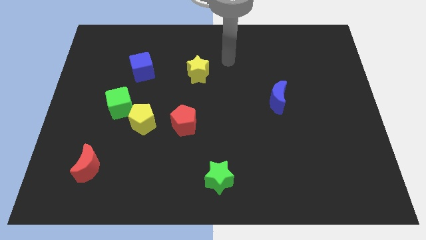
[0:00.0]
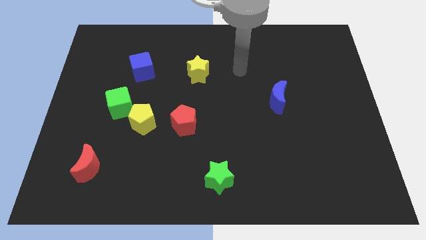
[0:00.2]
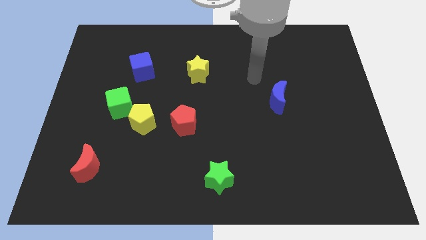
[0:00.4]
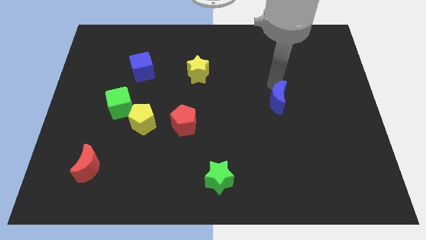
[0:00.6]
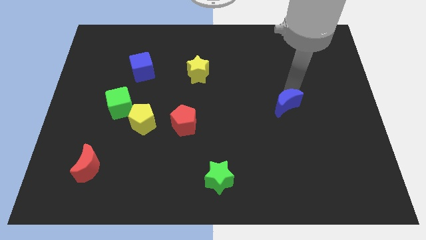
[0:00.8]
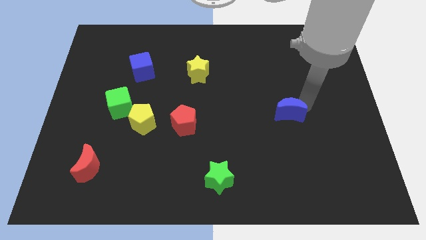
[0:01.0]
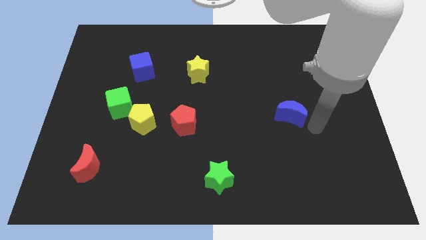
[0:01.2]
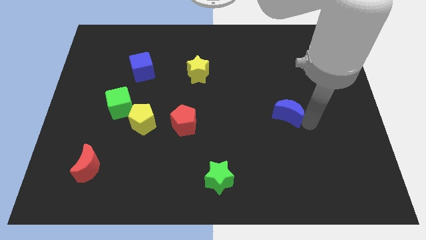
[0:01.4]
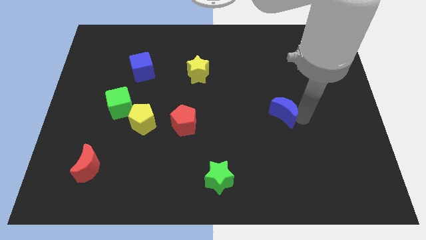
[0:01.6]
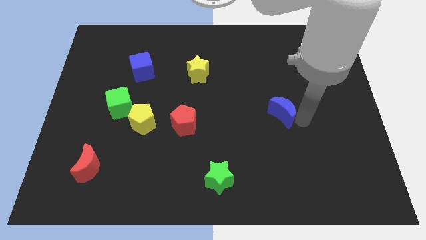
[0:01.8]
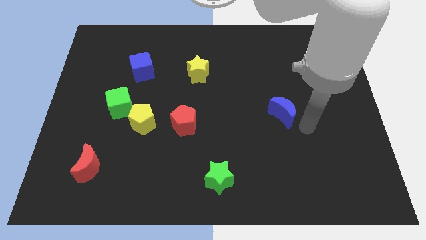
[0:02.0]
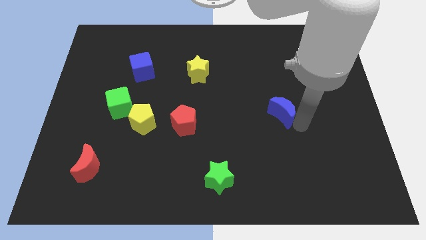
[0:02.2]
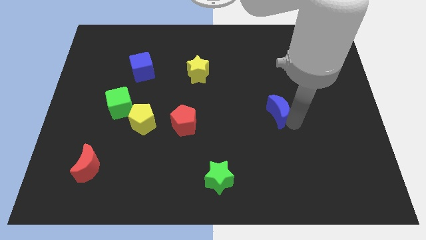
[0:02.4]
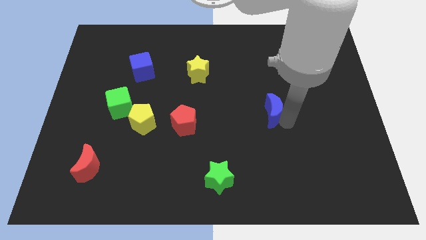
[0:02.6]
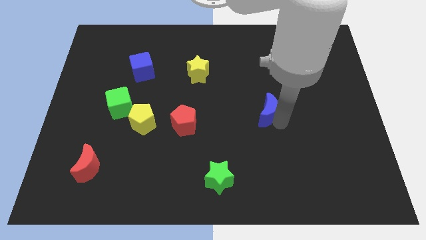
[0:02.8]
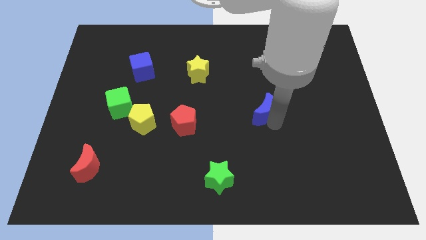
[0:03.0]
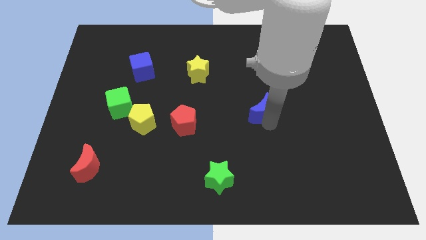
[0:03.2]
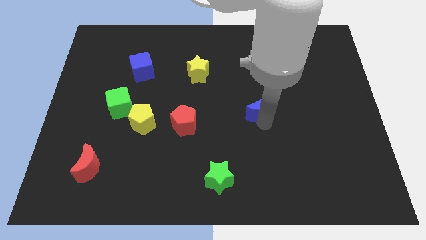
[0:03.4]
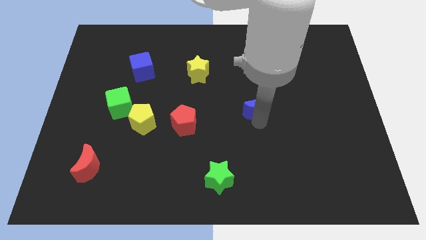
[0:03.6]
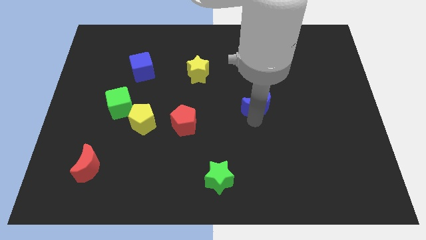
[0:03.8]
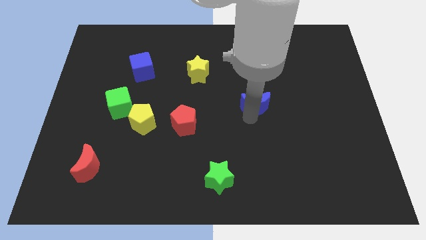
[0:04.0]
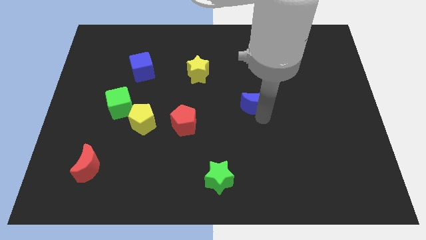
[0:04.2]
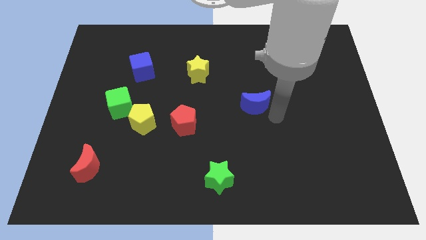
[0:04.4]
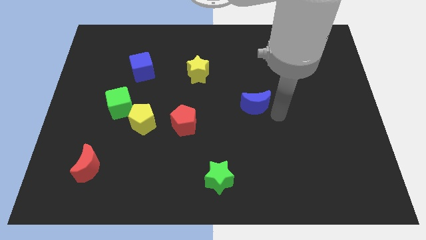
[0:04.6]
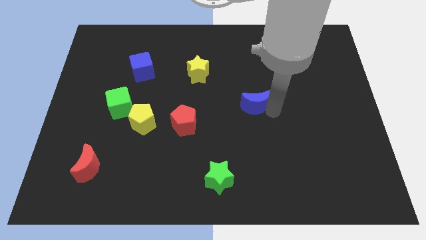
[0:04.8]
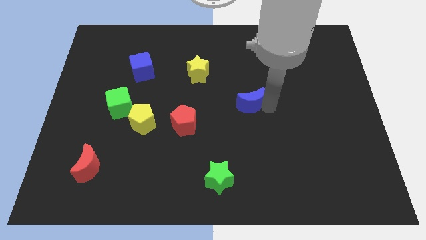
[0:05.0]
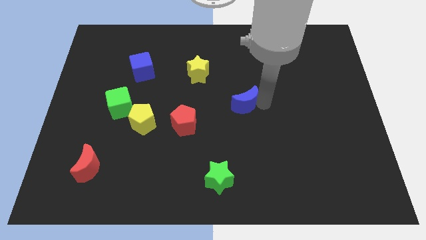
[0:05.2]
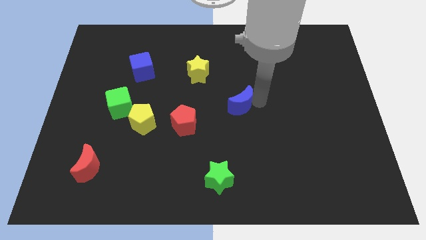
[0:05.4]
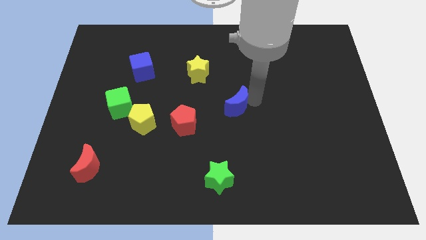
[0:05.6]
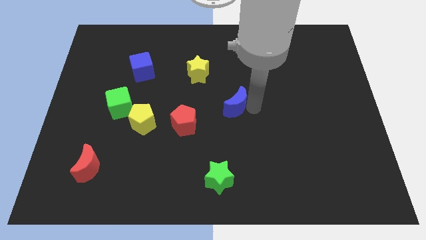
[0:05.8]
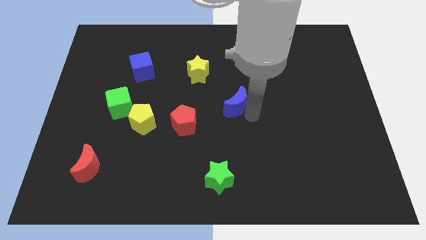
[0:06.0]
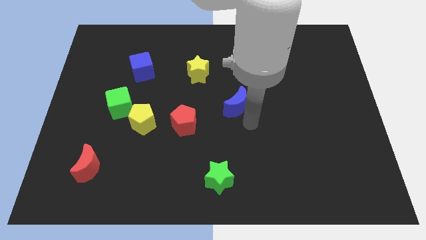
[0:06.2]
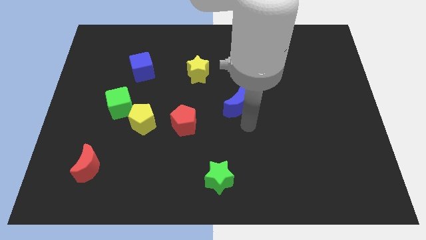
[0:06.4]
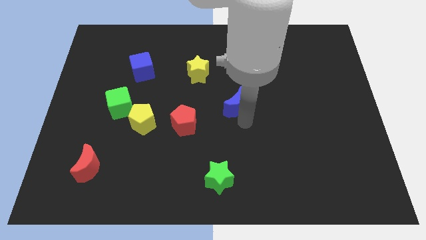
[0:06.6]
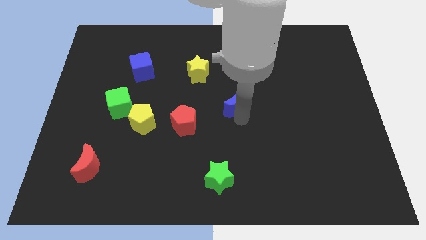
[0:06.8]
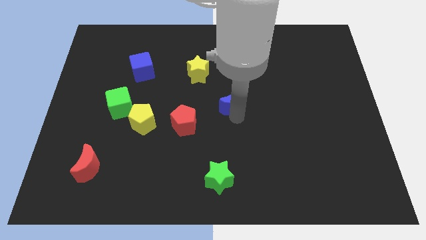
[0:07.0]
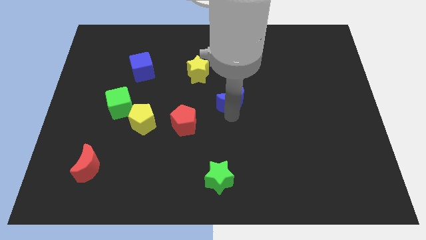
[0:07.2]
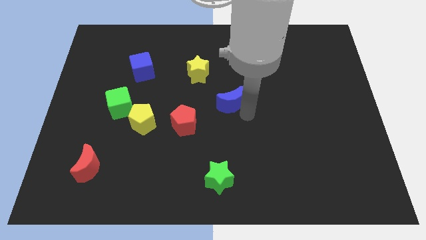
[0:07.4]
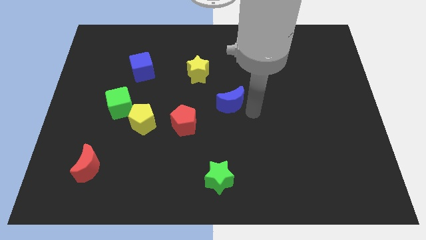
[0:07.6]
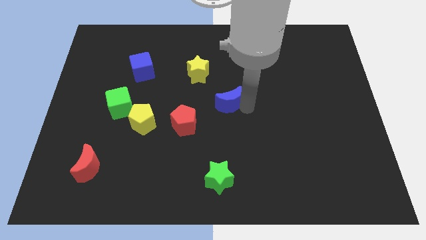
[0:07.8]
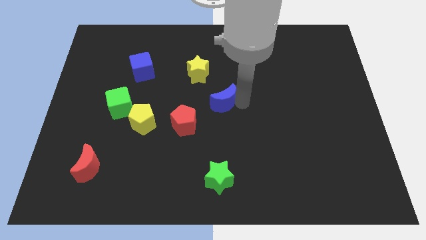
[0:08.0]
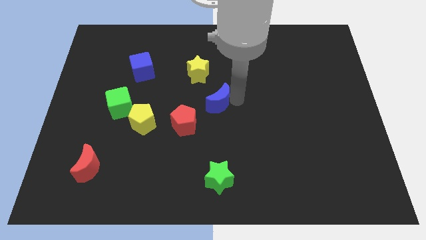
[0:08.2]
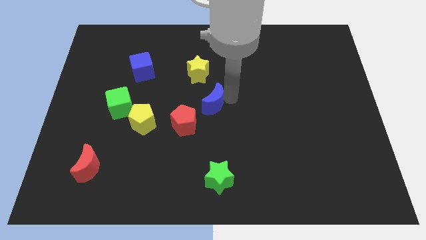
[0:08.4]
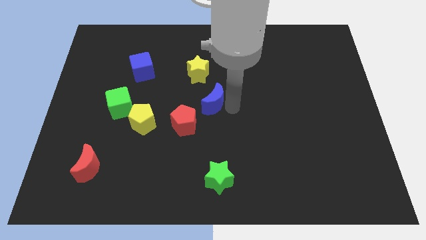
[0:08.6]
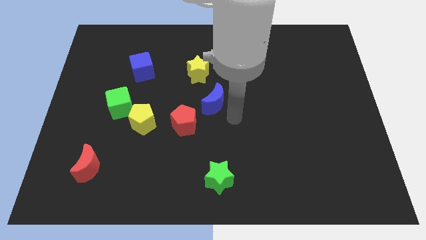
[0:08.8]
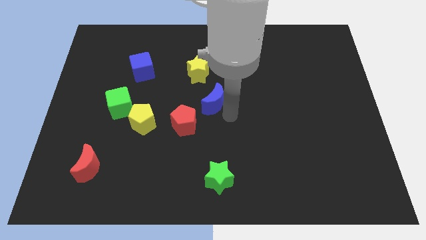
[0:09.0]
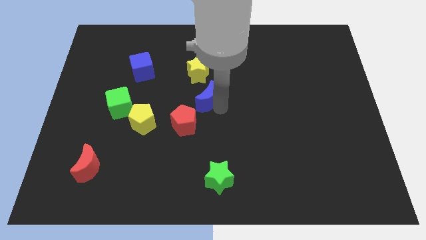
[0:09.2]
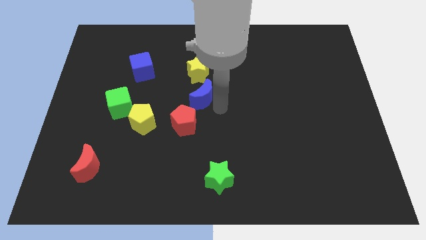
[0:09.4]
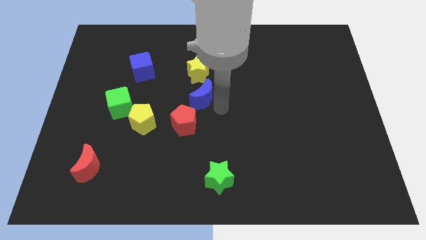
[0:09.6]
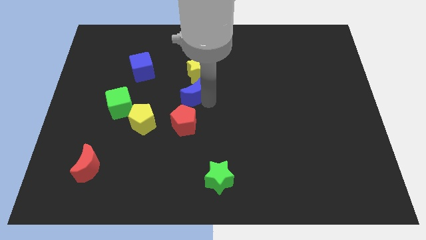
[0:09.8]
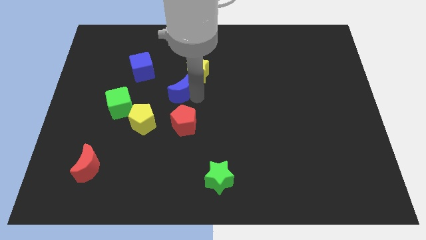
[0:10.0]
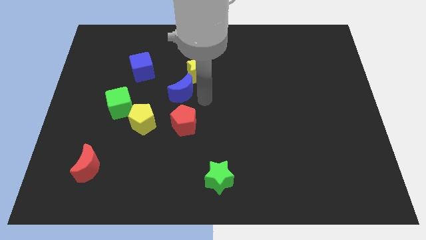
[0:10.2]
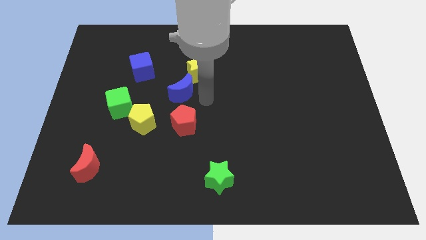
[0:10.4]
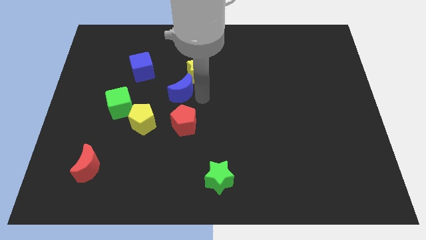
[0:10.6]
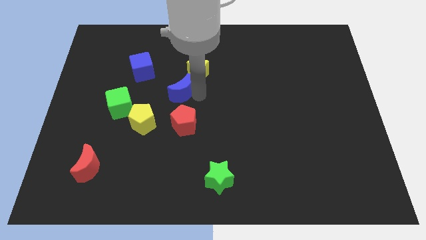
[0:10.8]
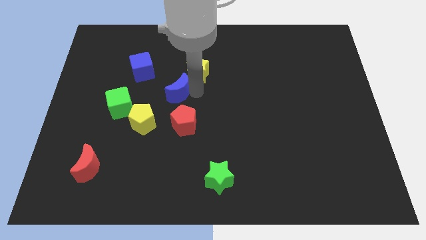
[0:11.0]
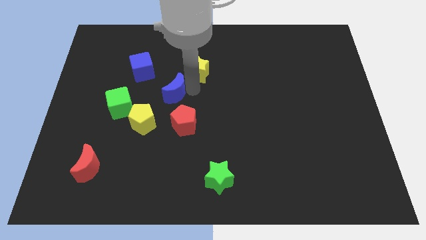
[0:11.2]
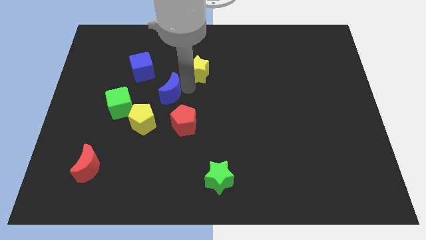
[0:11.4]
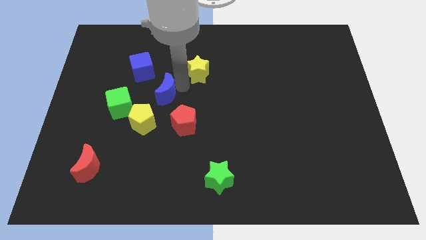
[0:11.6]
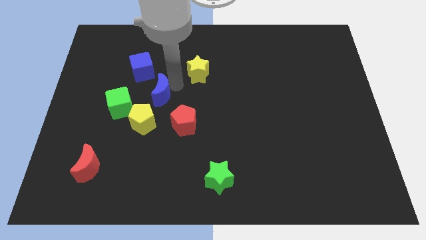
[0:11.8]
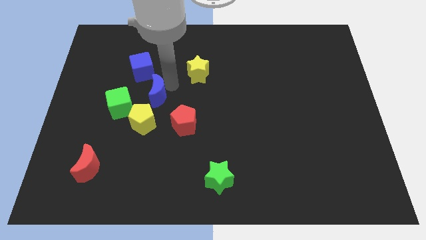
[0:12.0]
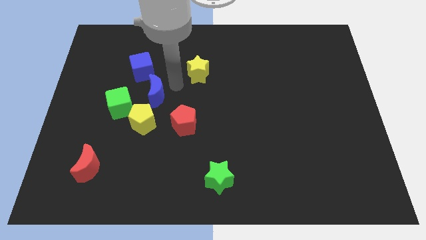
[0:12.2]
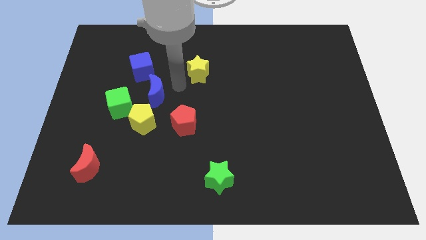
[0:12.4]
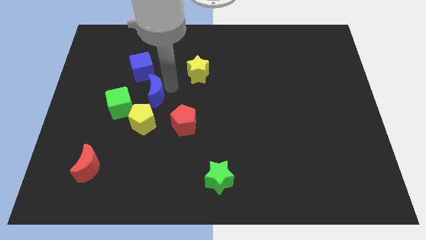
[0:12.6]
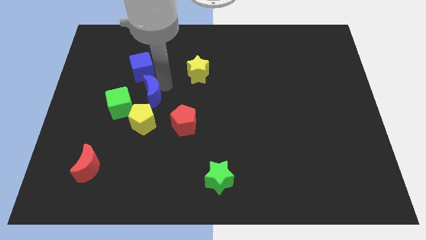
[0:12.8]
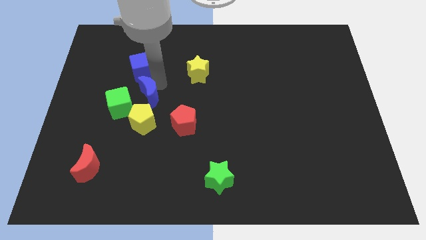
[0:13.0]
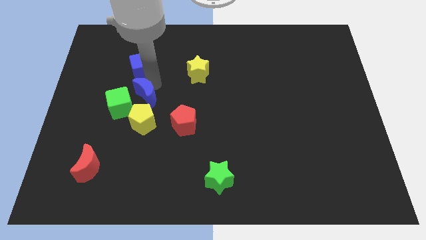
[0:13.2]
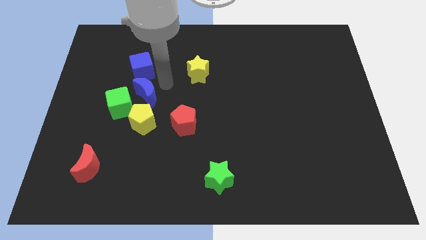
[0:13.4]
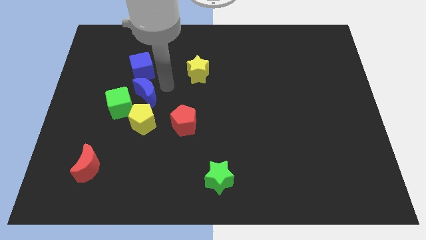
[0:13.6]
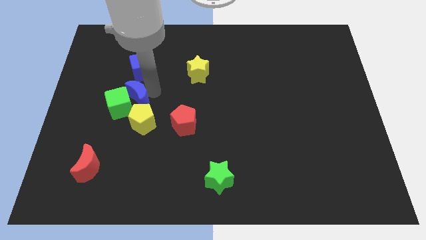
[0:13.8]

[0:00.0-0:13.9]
push the blue moon close to the green cube
